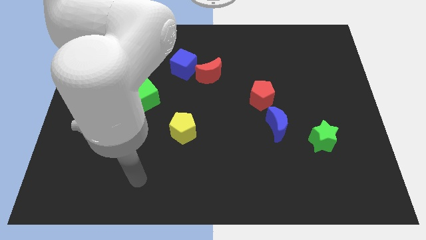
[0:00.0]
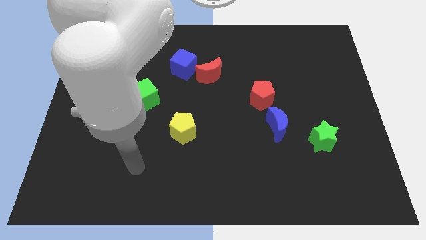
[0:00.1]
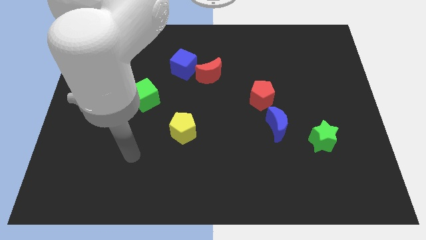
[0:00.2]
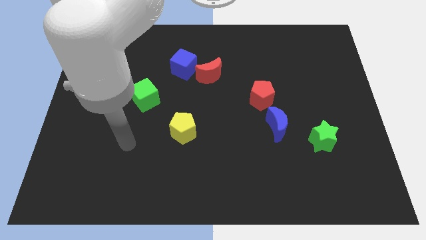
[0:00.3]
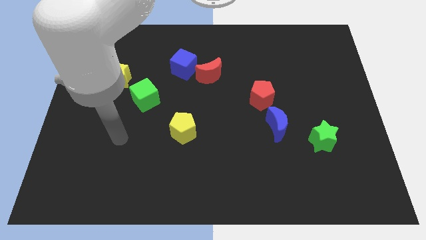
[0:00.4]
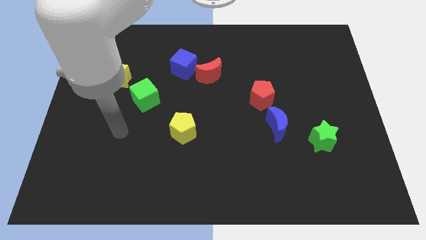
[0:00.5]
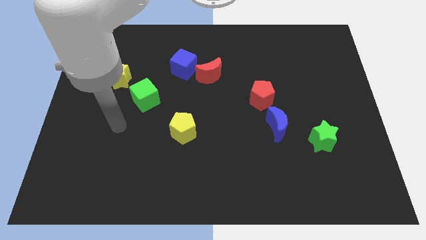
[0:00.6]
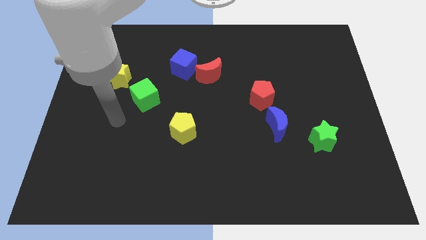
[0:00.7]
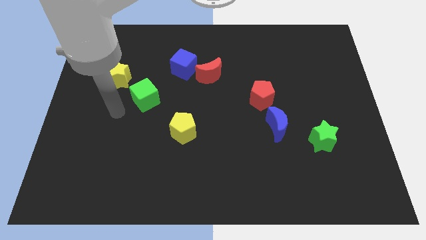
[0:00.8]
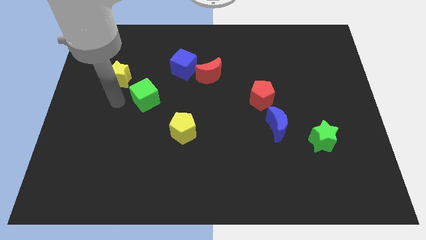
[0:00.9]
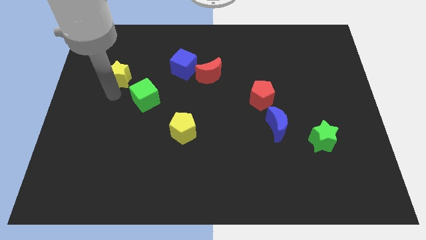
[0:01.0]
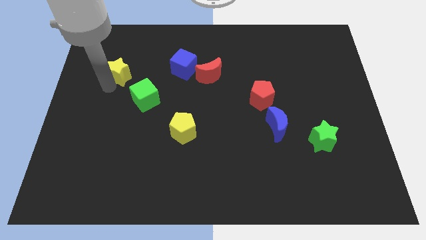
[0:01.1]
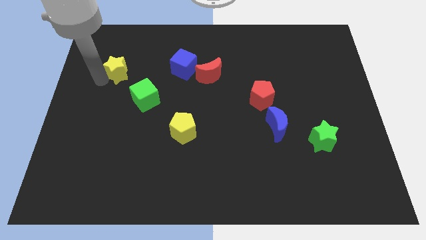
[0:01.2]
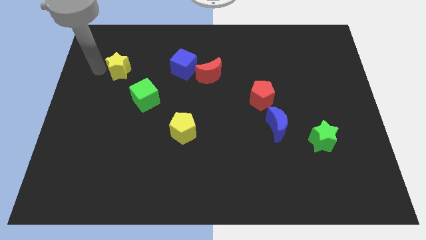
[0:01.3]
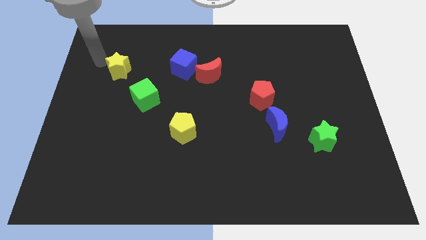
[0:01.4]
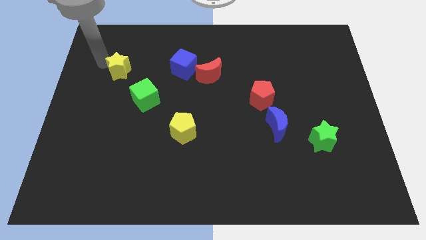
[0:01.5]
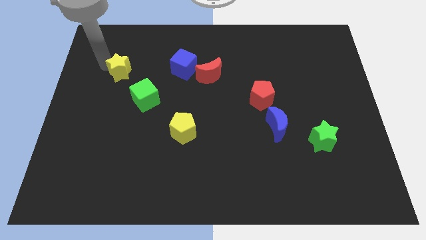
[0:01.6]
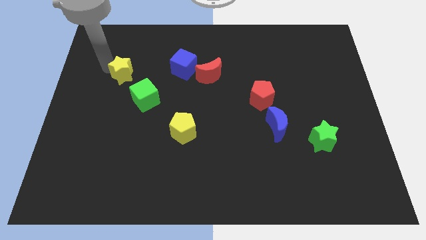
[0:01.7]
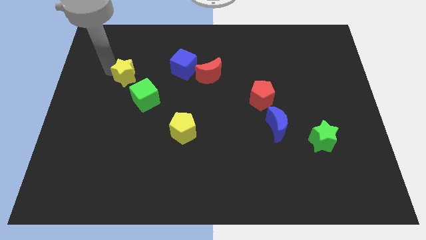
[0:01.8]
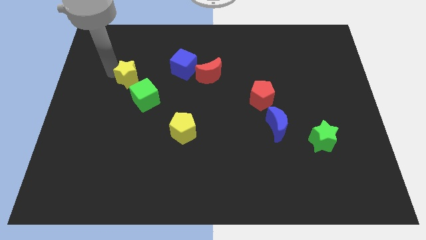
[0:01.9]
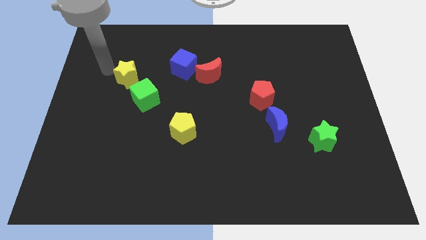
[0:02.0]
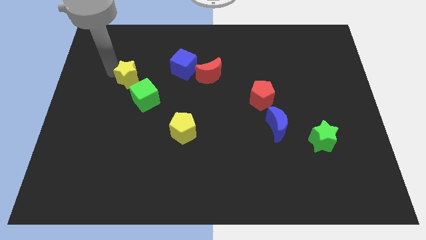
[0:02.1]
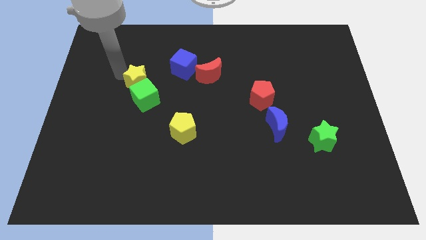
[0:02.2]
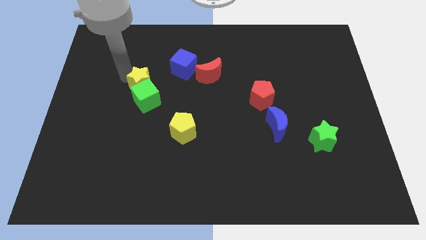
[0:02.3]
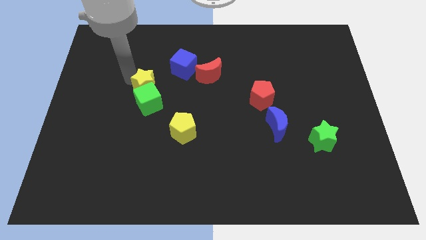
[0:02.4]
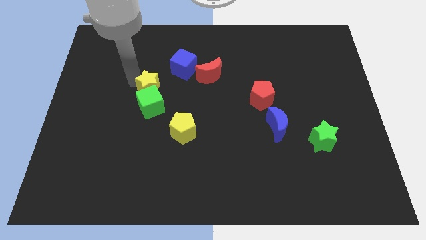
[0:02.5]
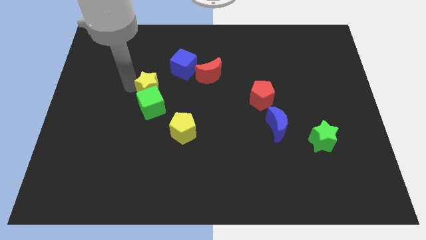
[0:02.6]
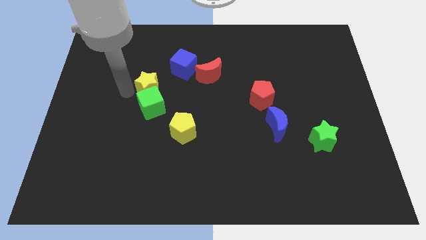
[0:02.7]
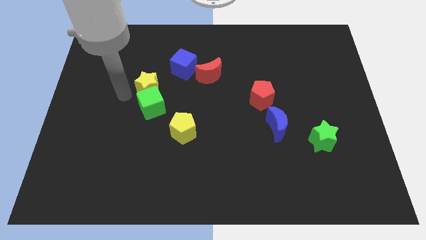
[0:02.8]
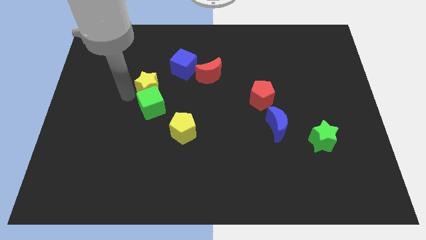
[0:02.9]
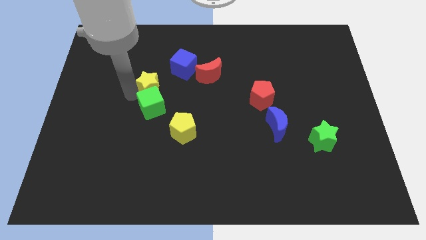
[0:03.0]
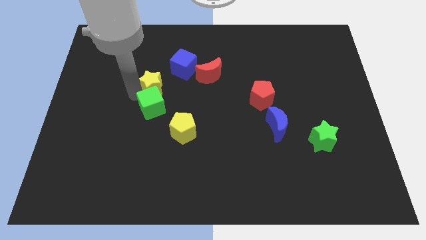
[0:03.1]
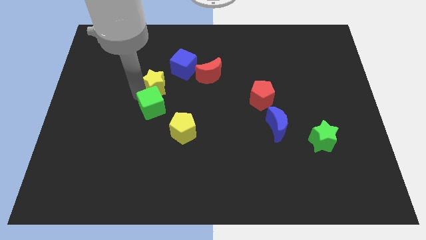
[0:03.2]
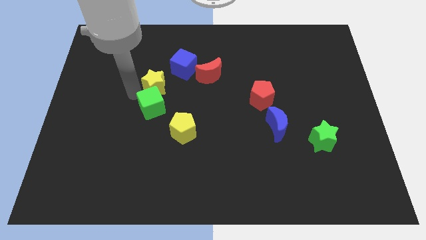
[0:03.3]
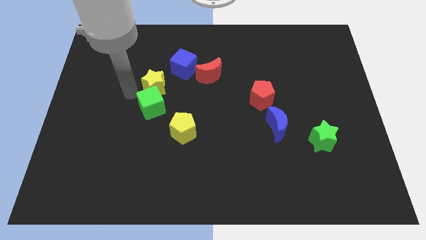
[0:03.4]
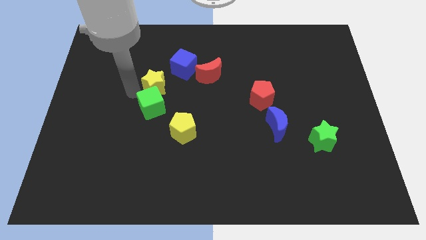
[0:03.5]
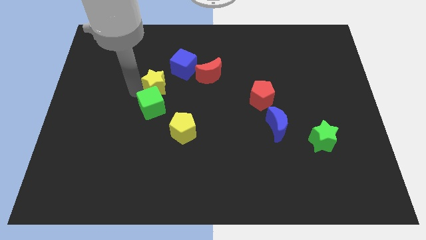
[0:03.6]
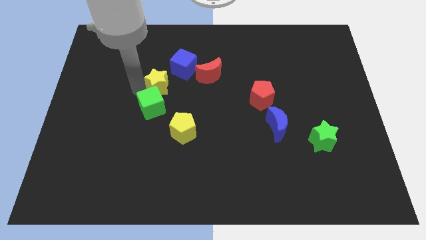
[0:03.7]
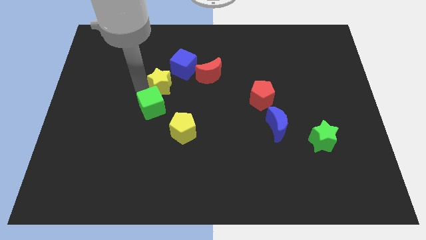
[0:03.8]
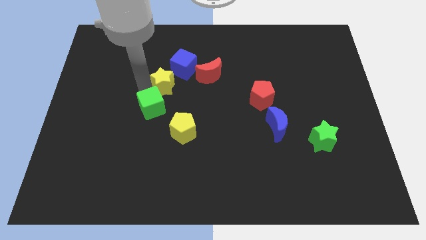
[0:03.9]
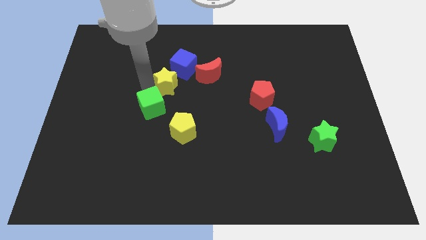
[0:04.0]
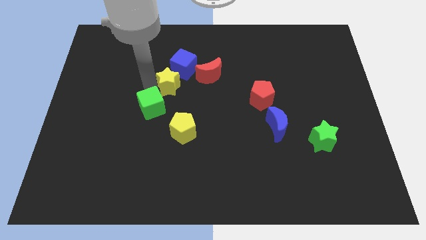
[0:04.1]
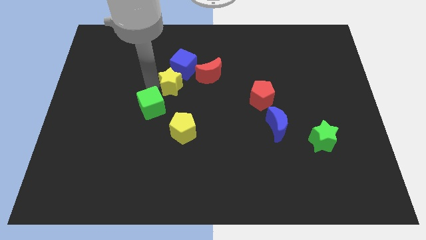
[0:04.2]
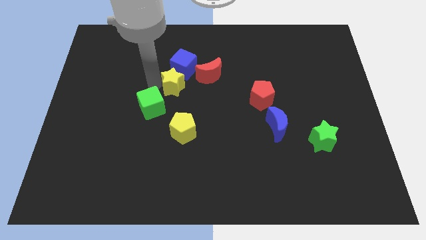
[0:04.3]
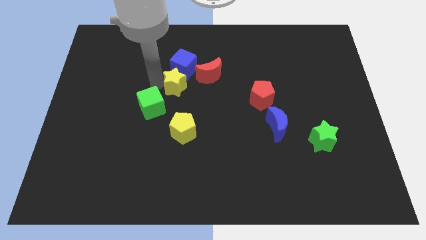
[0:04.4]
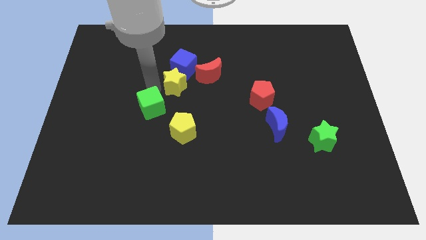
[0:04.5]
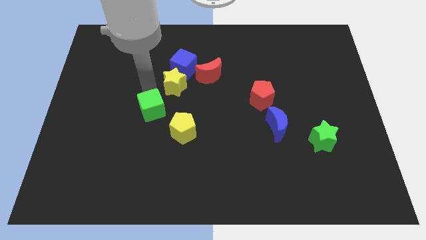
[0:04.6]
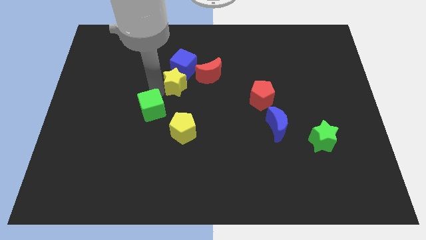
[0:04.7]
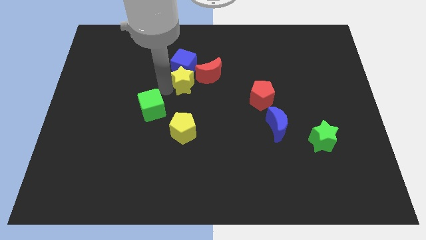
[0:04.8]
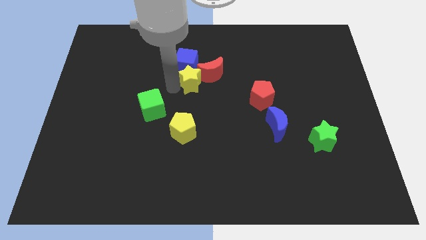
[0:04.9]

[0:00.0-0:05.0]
put the yellow star towards the red moon

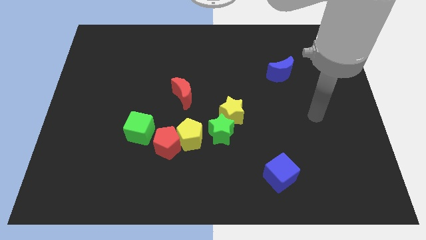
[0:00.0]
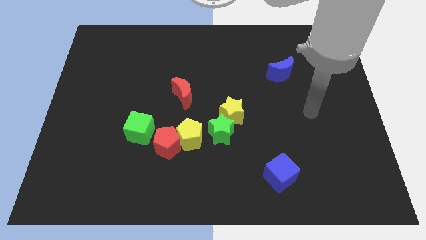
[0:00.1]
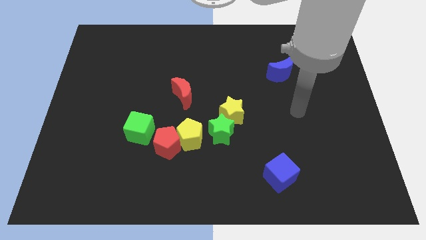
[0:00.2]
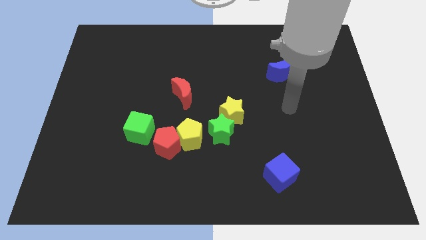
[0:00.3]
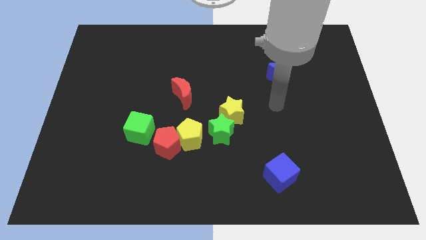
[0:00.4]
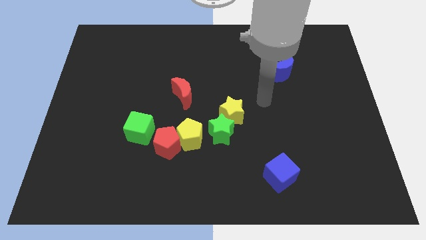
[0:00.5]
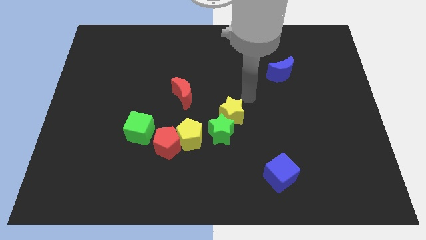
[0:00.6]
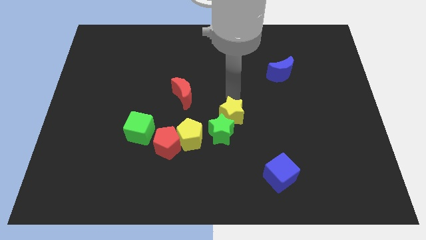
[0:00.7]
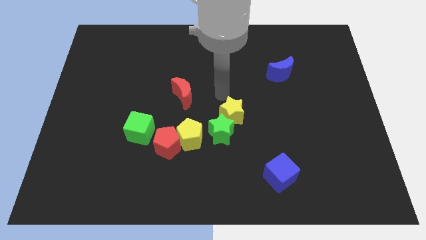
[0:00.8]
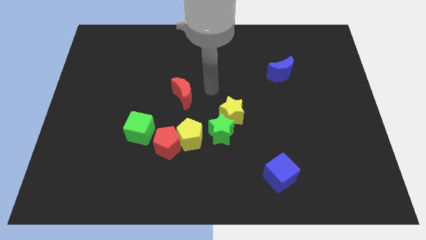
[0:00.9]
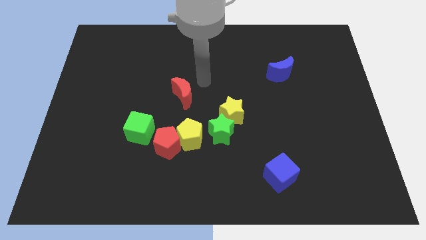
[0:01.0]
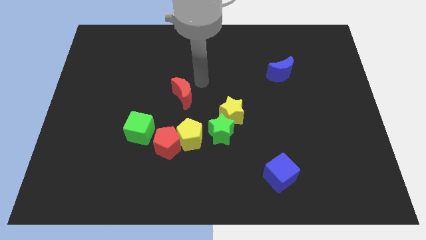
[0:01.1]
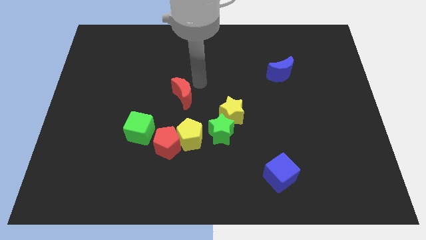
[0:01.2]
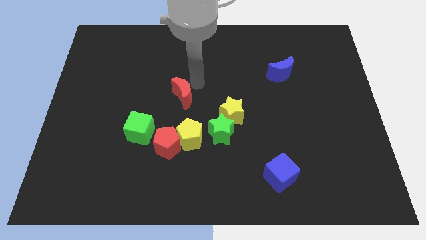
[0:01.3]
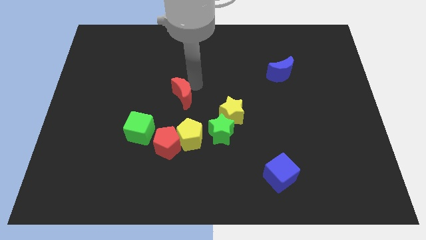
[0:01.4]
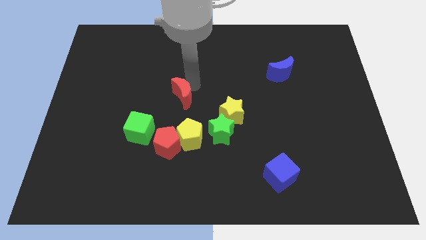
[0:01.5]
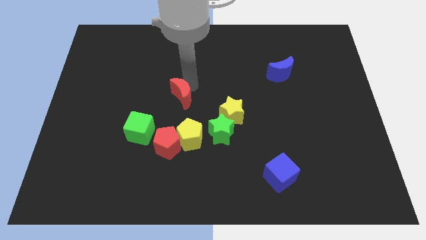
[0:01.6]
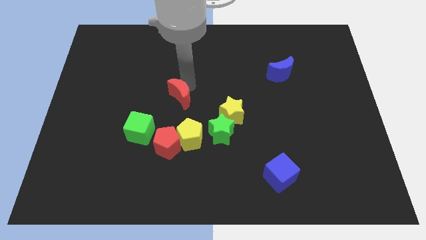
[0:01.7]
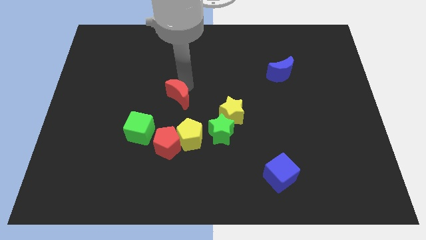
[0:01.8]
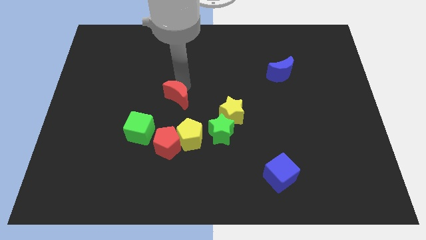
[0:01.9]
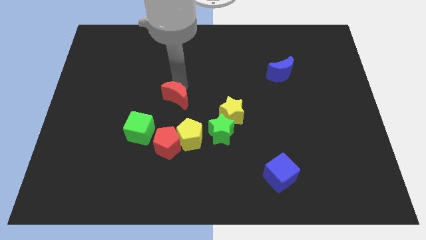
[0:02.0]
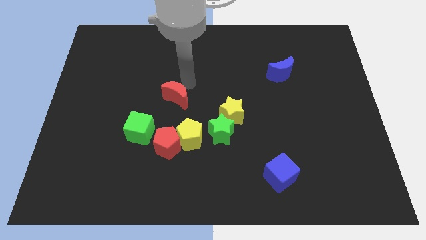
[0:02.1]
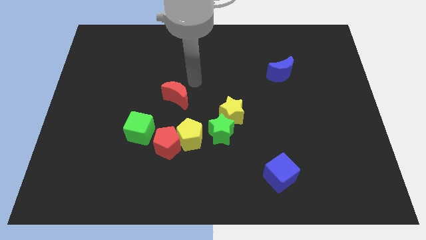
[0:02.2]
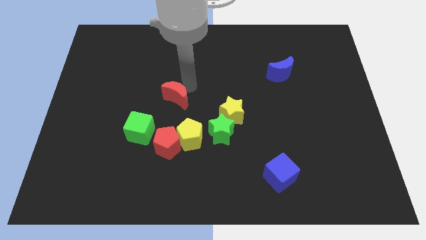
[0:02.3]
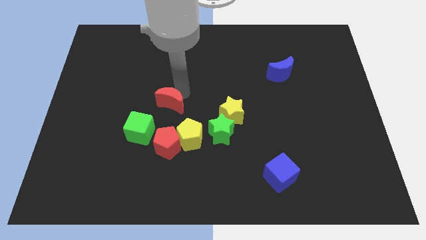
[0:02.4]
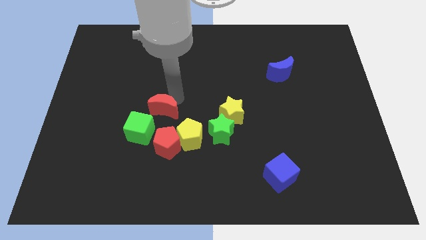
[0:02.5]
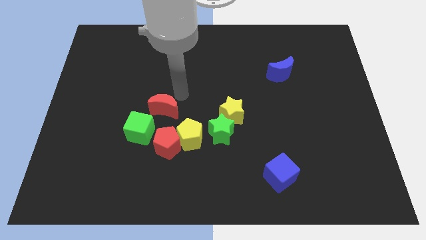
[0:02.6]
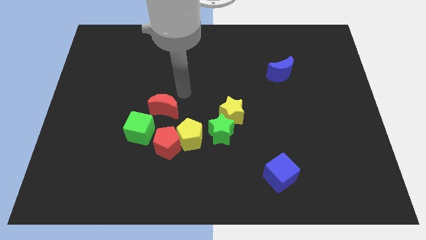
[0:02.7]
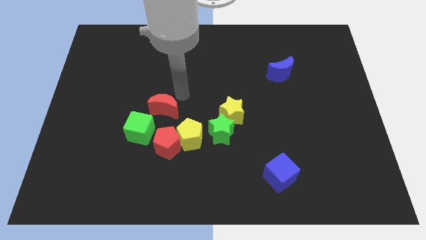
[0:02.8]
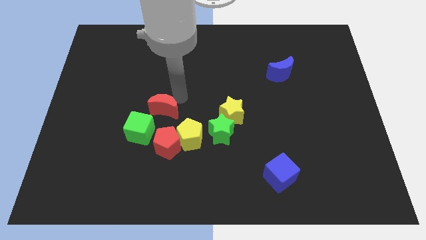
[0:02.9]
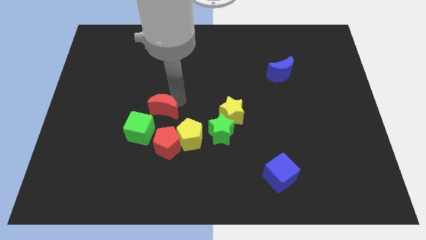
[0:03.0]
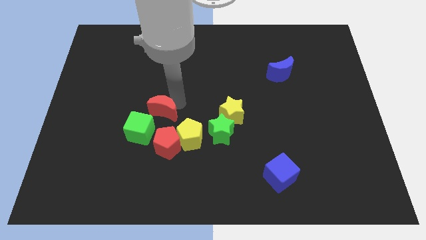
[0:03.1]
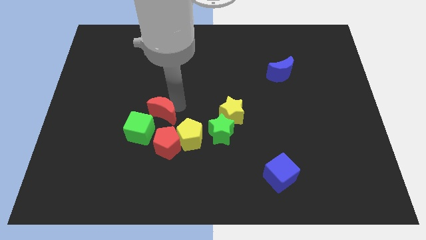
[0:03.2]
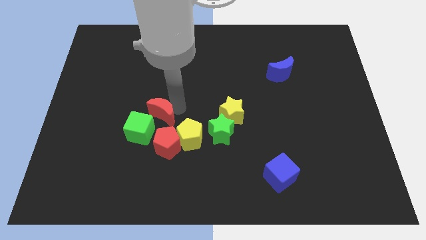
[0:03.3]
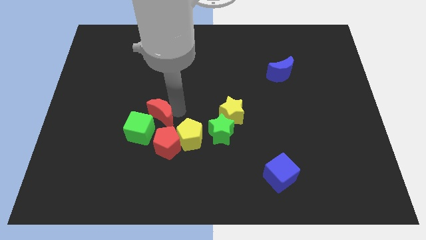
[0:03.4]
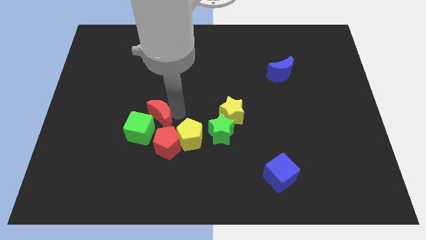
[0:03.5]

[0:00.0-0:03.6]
move the red moon towards the green cube
